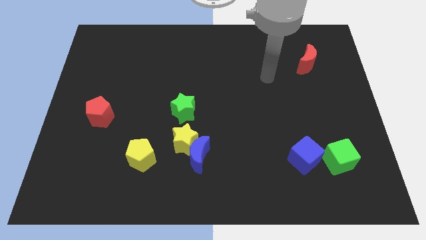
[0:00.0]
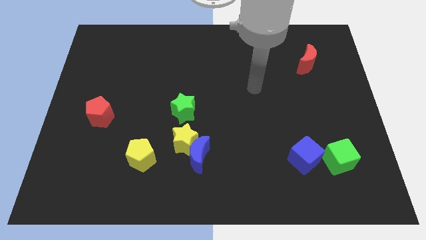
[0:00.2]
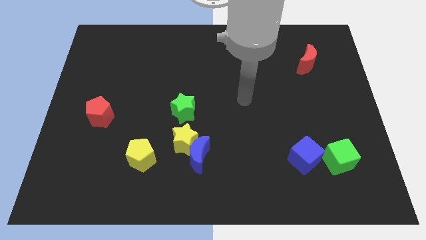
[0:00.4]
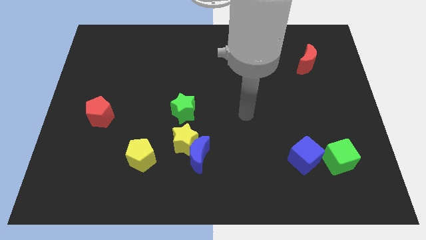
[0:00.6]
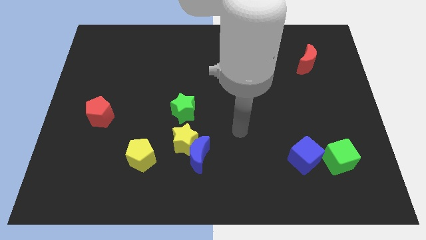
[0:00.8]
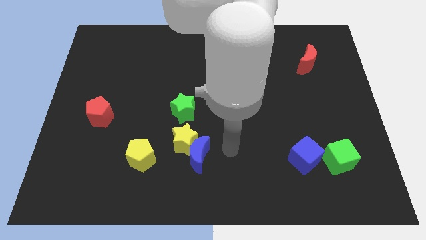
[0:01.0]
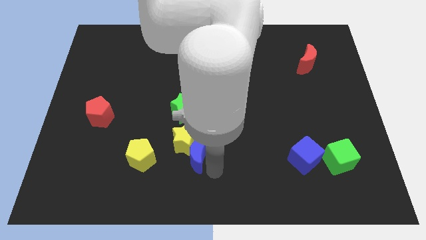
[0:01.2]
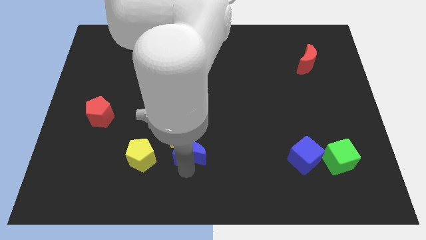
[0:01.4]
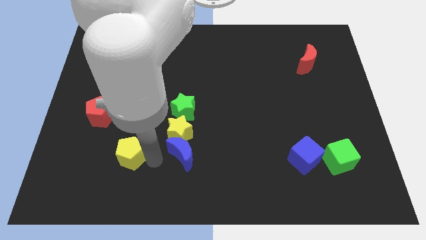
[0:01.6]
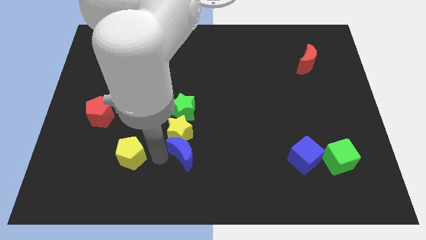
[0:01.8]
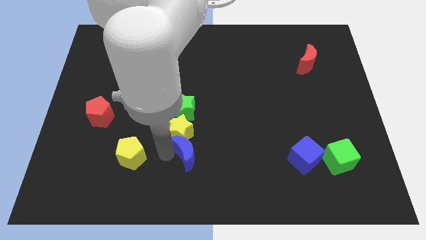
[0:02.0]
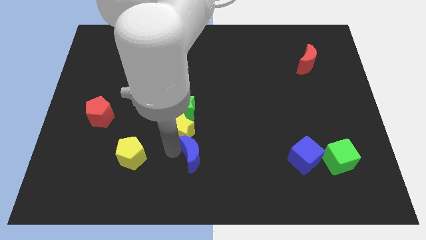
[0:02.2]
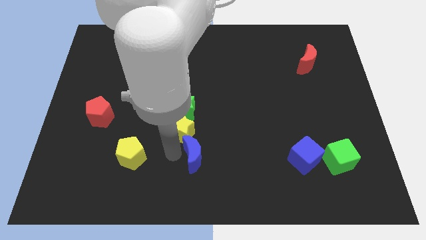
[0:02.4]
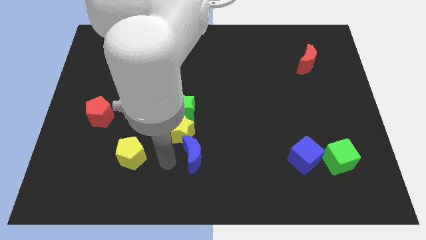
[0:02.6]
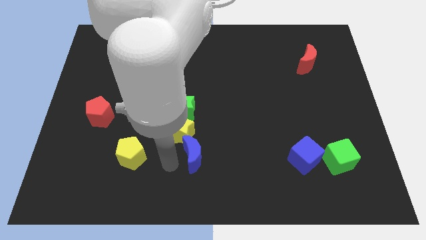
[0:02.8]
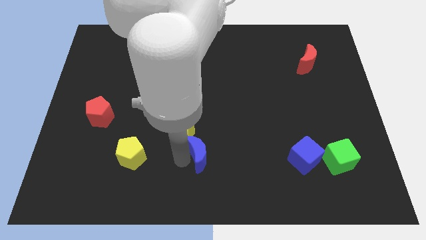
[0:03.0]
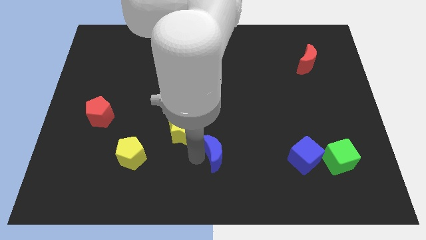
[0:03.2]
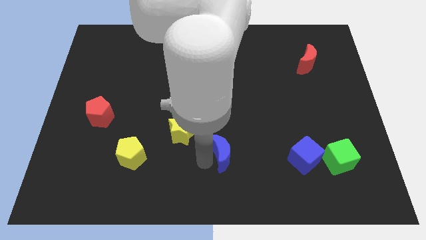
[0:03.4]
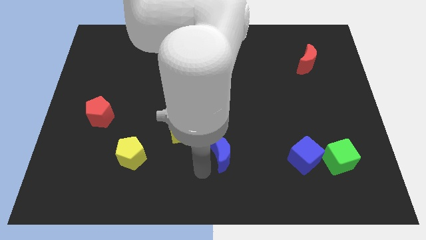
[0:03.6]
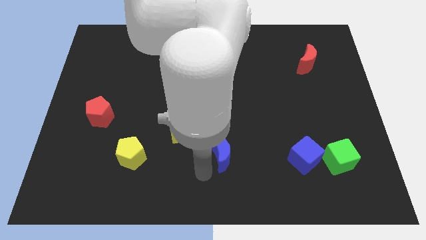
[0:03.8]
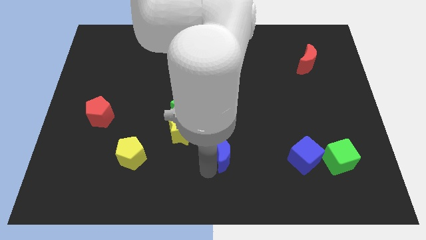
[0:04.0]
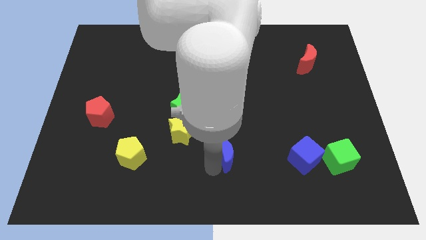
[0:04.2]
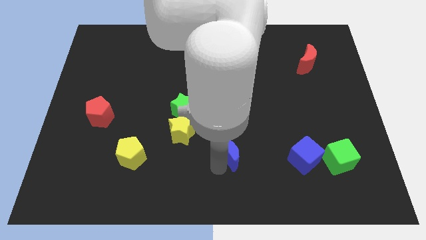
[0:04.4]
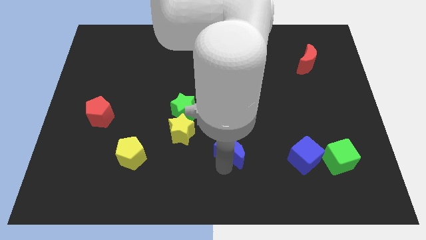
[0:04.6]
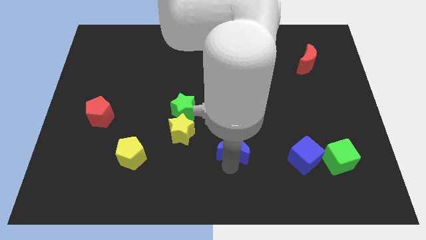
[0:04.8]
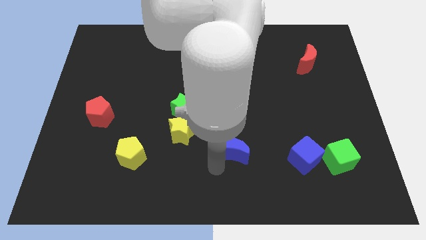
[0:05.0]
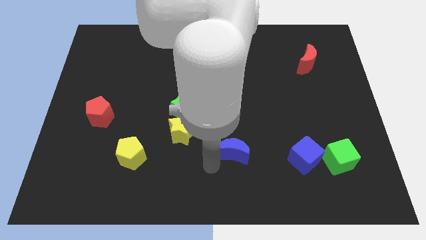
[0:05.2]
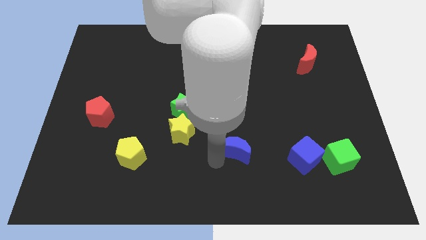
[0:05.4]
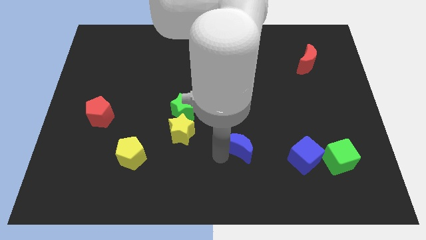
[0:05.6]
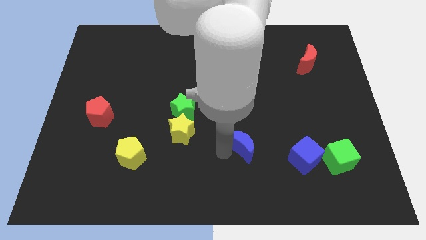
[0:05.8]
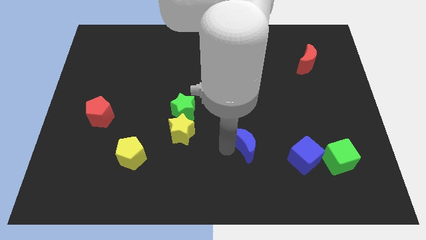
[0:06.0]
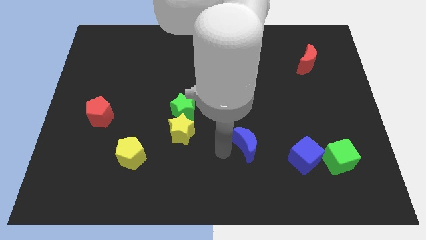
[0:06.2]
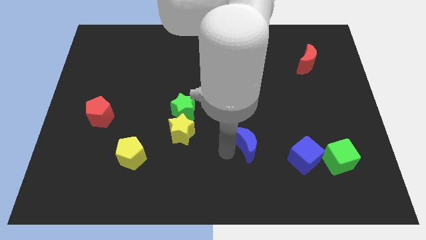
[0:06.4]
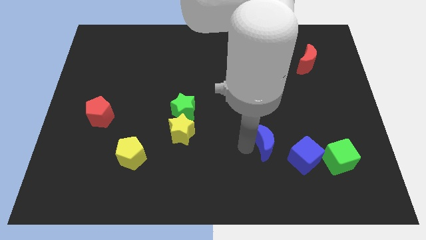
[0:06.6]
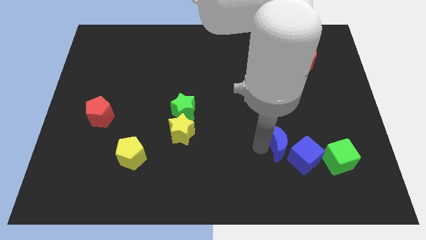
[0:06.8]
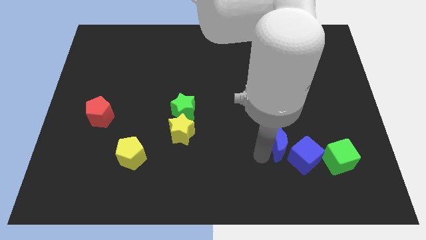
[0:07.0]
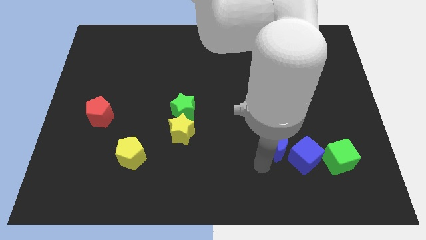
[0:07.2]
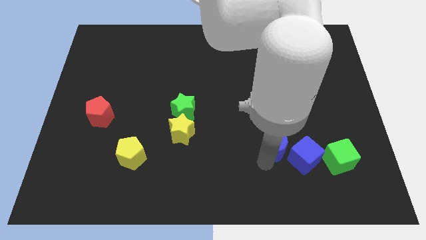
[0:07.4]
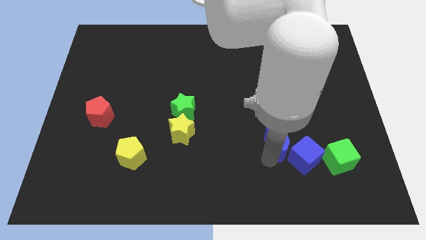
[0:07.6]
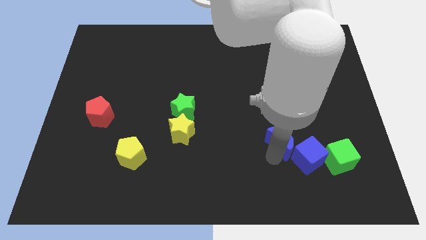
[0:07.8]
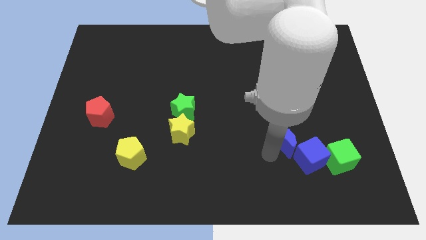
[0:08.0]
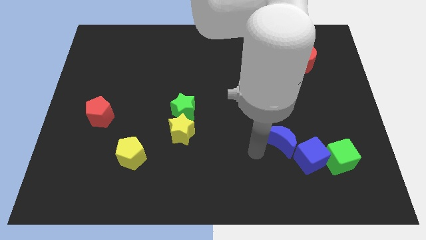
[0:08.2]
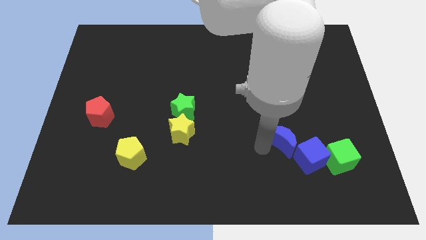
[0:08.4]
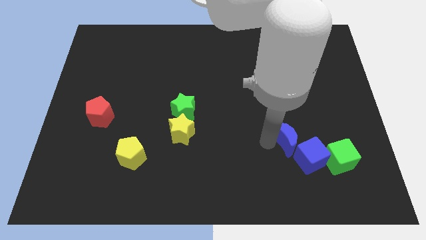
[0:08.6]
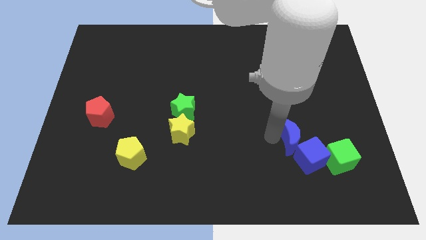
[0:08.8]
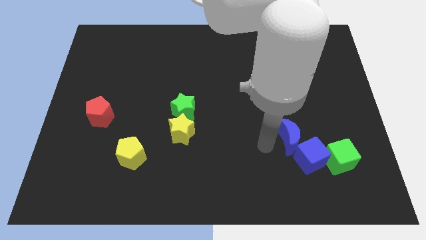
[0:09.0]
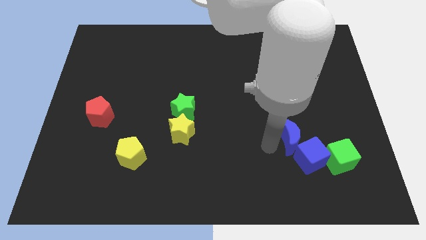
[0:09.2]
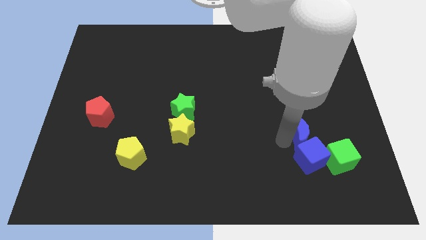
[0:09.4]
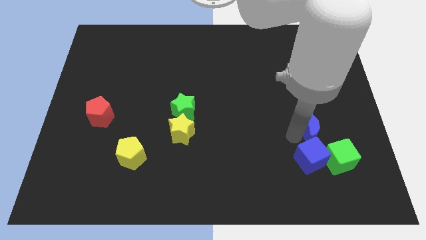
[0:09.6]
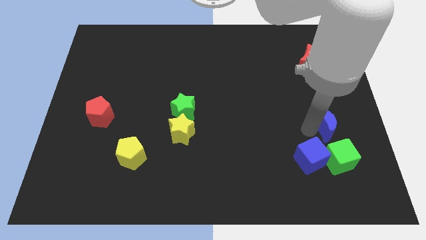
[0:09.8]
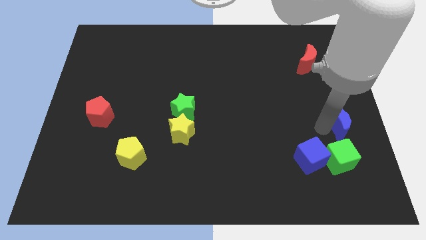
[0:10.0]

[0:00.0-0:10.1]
move the blue moon to the right side of the board

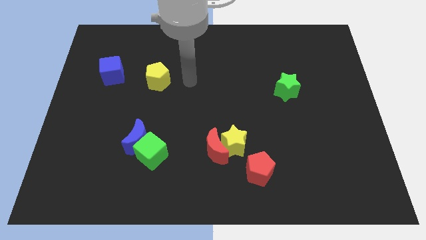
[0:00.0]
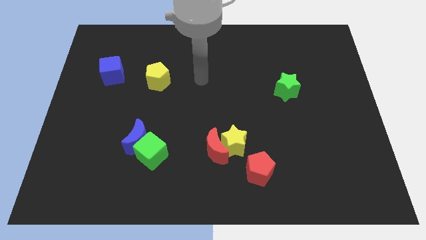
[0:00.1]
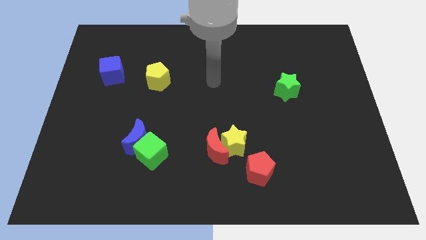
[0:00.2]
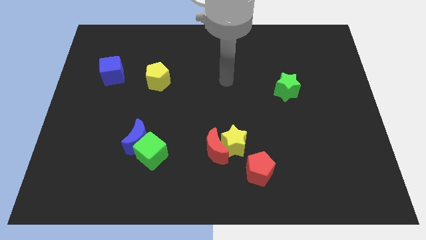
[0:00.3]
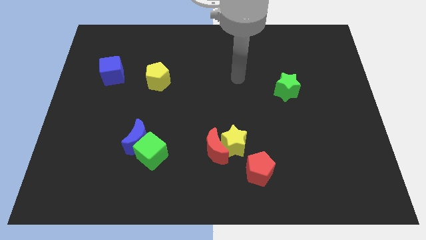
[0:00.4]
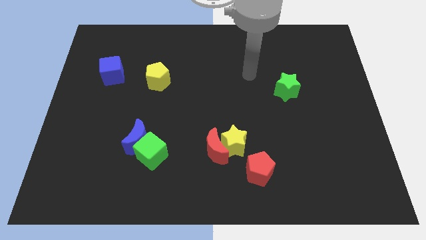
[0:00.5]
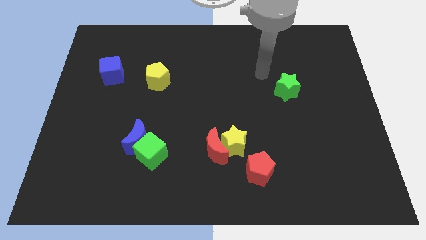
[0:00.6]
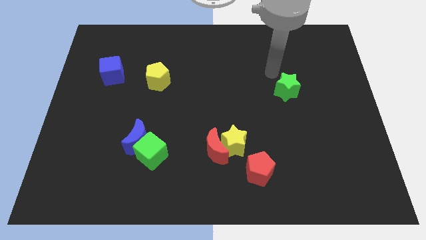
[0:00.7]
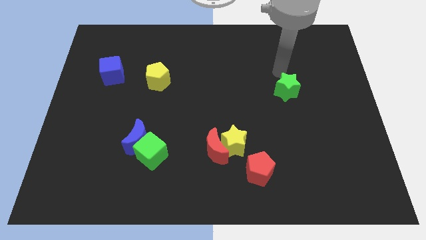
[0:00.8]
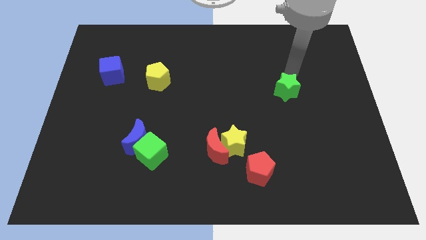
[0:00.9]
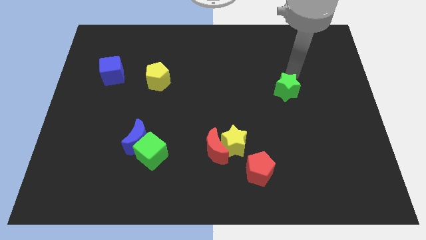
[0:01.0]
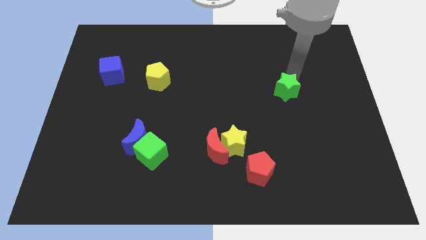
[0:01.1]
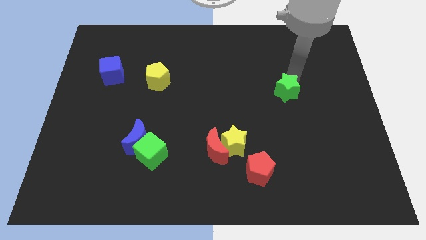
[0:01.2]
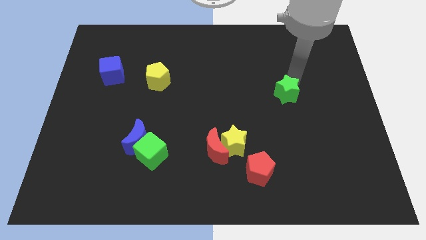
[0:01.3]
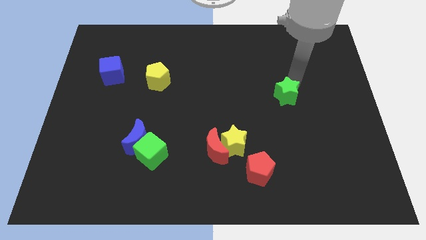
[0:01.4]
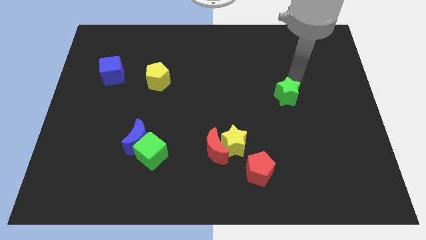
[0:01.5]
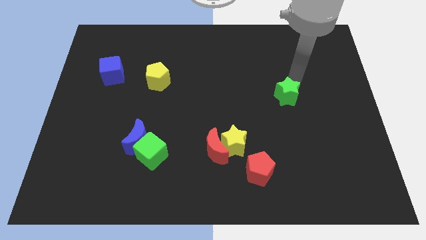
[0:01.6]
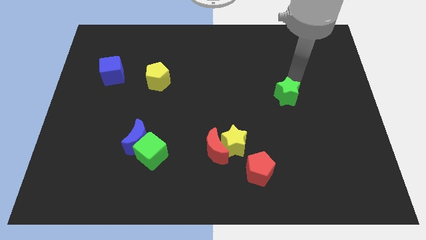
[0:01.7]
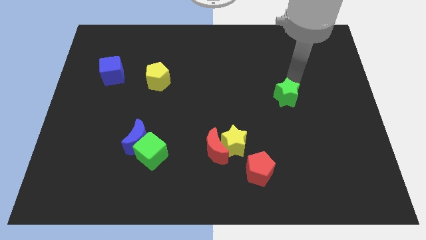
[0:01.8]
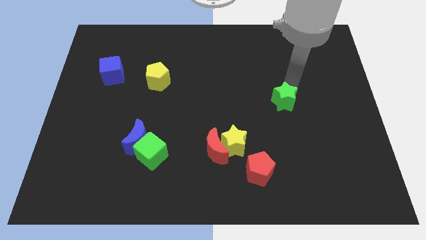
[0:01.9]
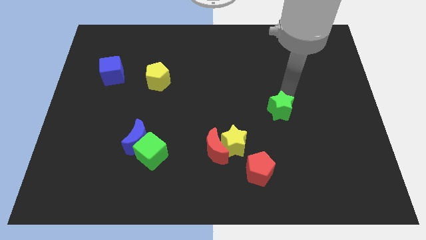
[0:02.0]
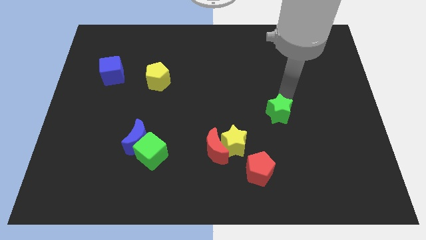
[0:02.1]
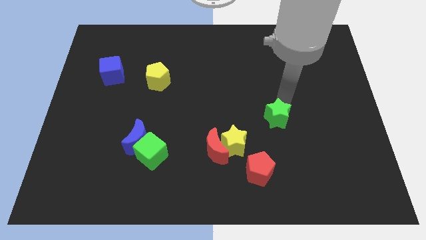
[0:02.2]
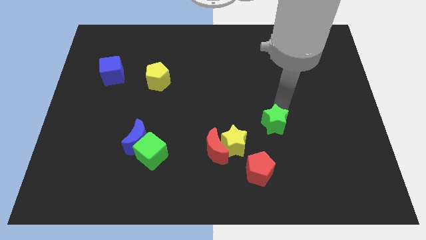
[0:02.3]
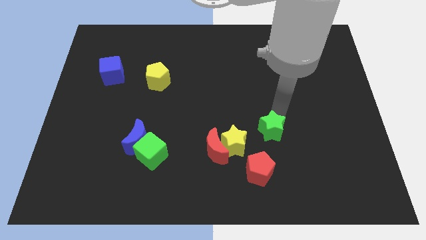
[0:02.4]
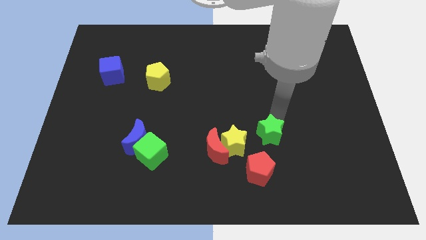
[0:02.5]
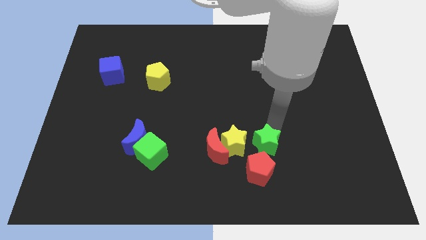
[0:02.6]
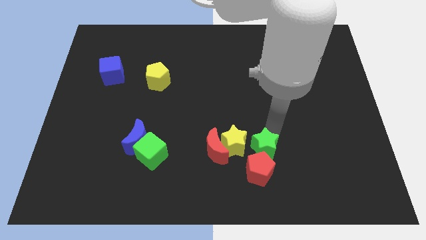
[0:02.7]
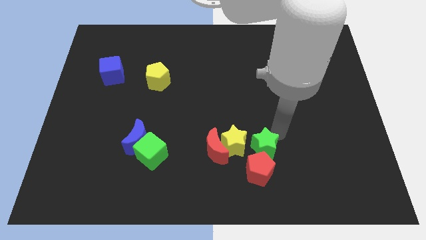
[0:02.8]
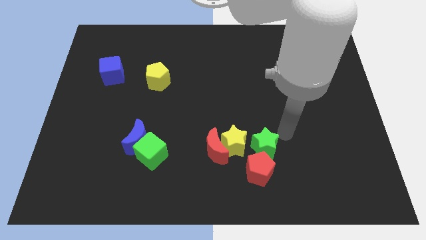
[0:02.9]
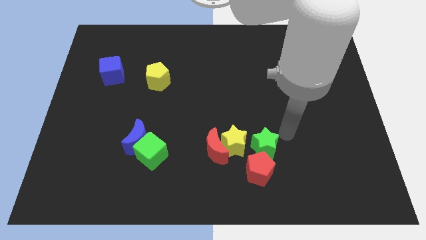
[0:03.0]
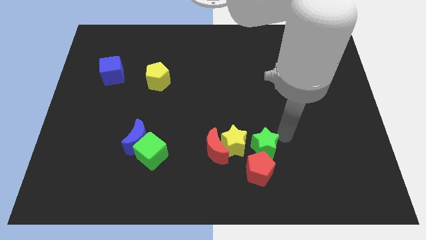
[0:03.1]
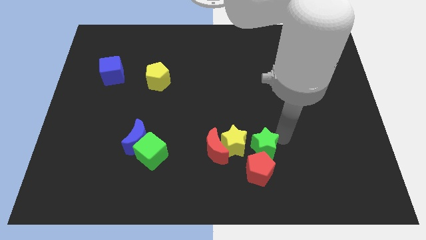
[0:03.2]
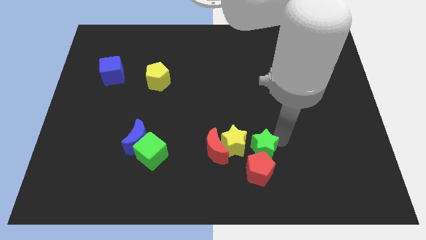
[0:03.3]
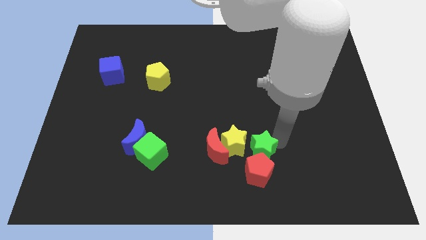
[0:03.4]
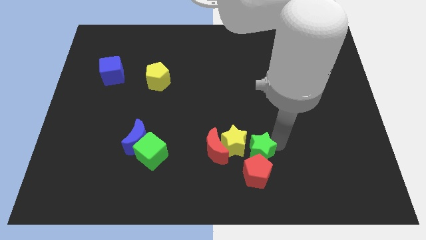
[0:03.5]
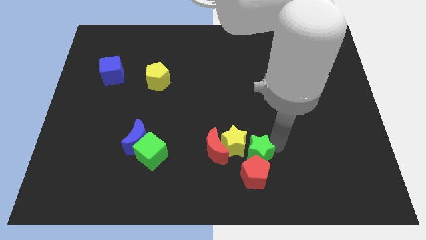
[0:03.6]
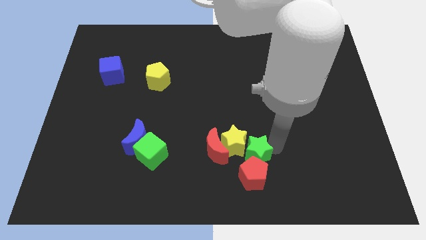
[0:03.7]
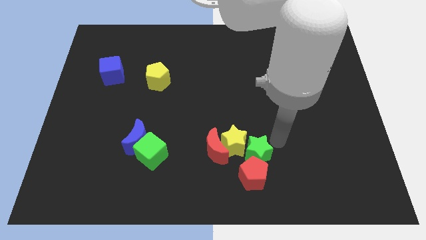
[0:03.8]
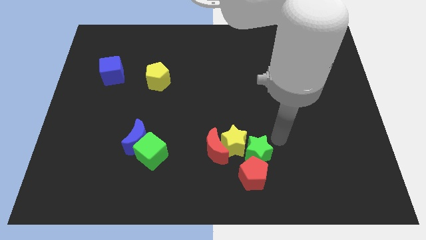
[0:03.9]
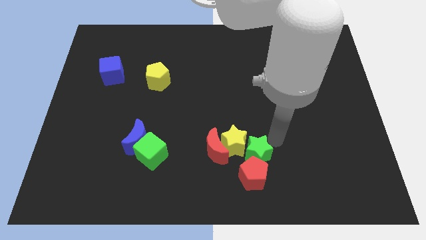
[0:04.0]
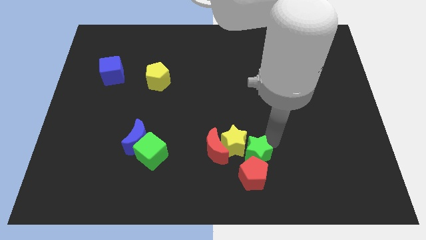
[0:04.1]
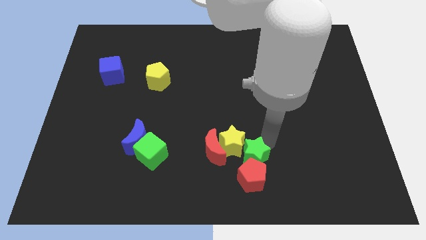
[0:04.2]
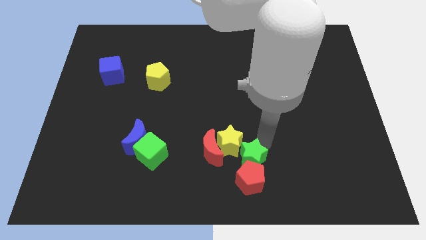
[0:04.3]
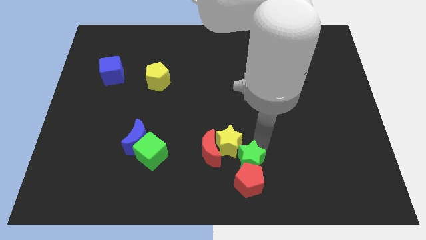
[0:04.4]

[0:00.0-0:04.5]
slide the green star to the bottom side
